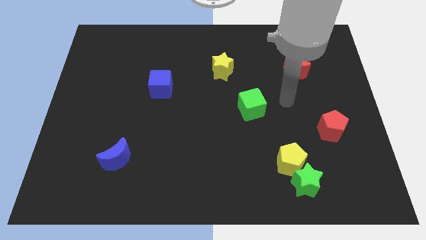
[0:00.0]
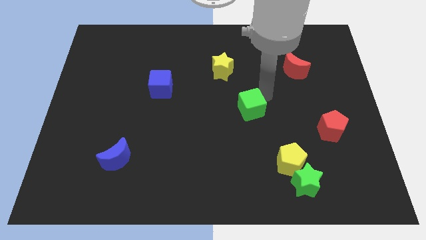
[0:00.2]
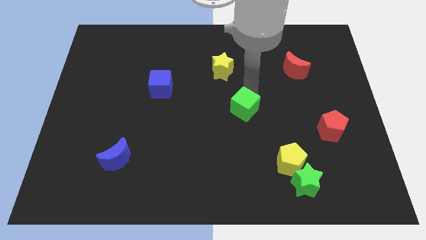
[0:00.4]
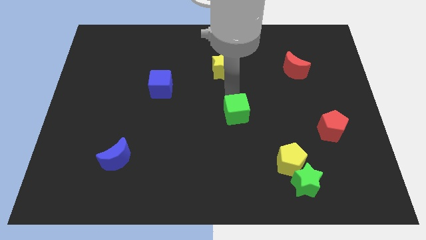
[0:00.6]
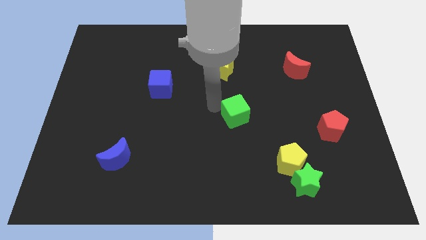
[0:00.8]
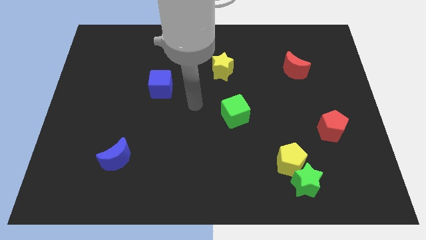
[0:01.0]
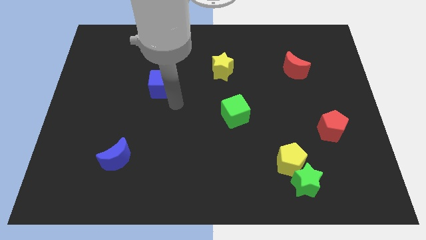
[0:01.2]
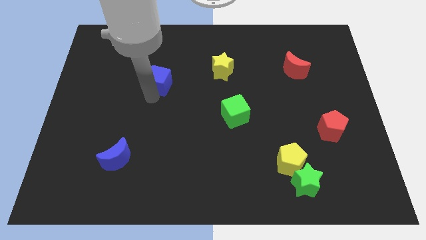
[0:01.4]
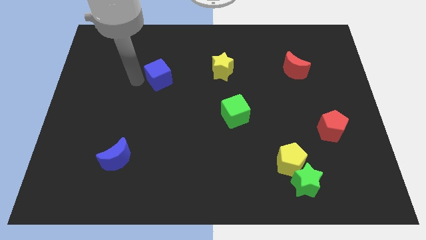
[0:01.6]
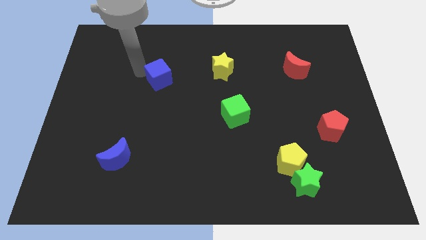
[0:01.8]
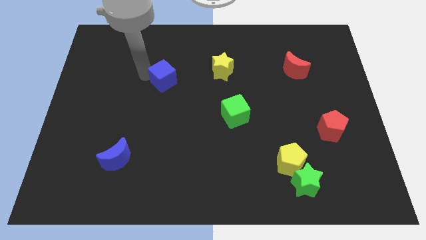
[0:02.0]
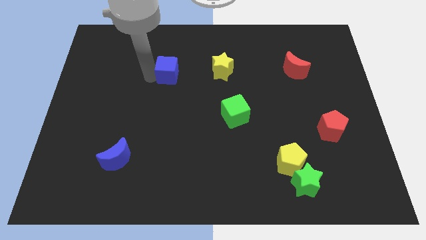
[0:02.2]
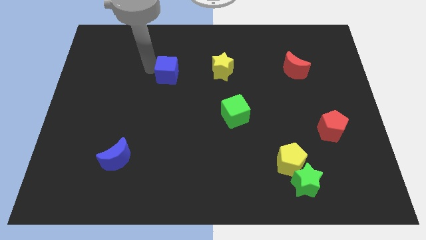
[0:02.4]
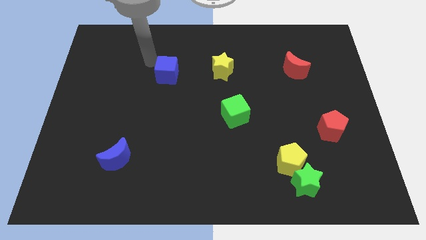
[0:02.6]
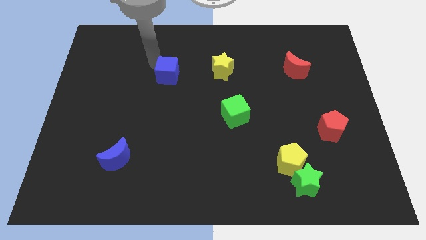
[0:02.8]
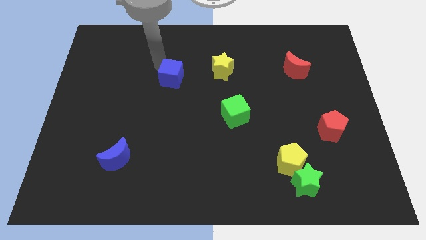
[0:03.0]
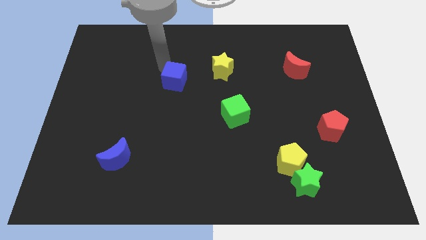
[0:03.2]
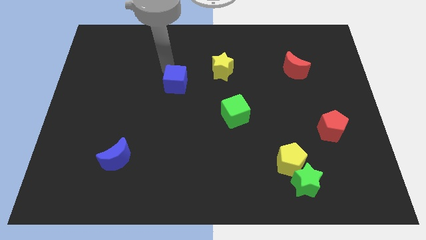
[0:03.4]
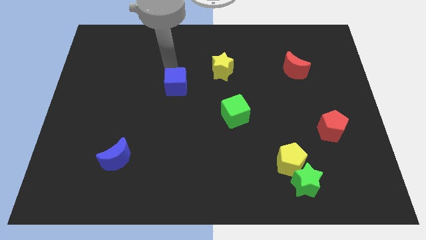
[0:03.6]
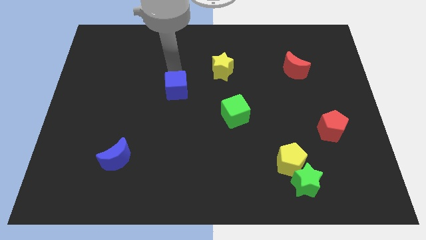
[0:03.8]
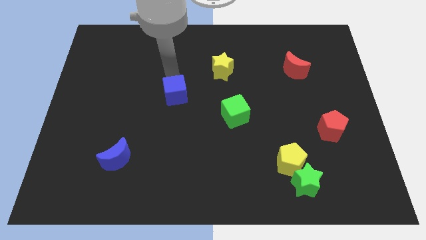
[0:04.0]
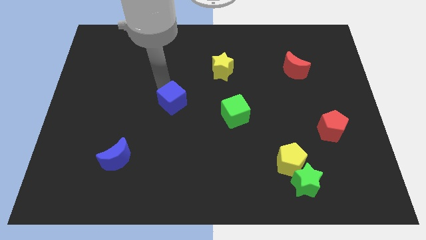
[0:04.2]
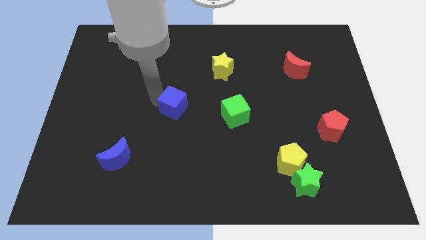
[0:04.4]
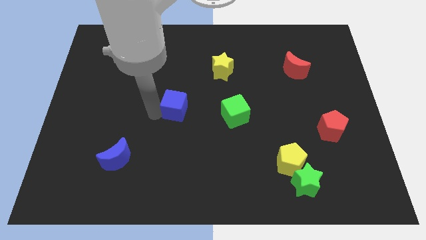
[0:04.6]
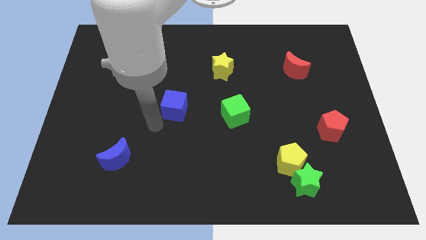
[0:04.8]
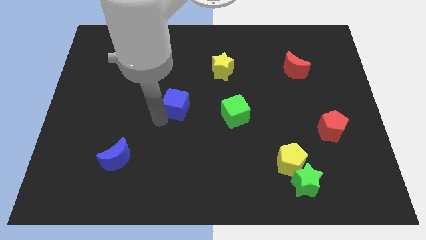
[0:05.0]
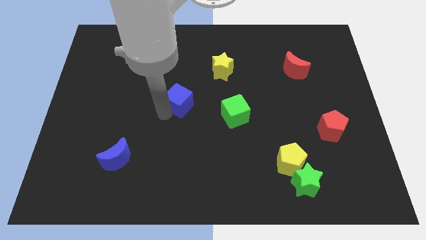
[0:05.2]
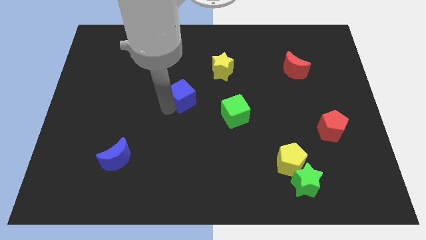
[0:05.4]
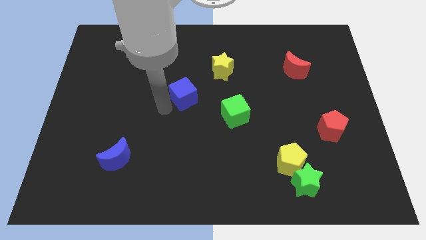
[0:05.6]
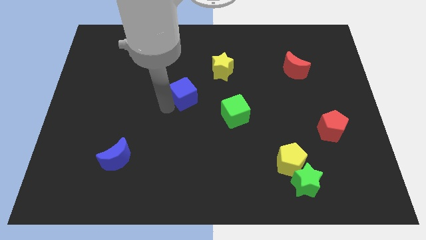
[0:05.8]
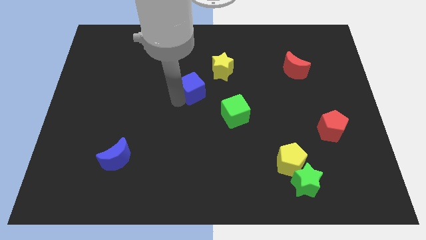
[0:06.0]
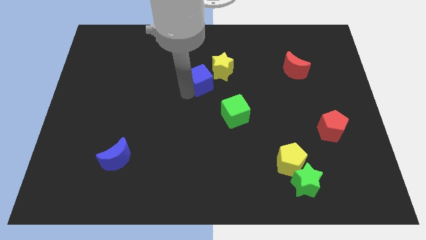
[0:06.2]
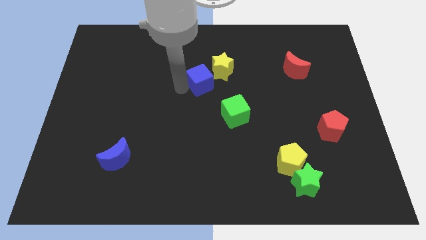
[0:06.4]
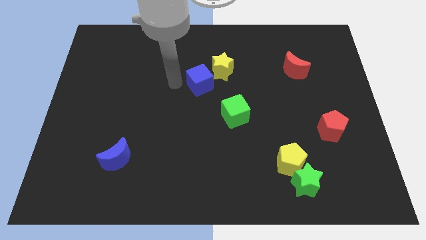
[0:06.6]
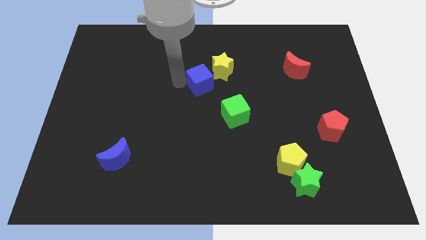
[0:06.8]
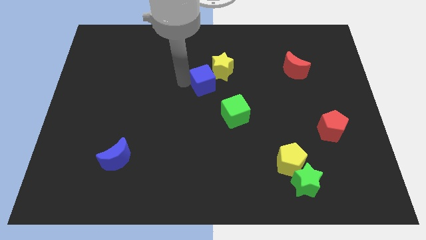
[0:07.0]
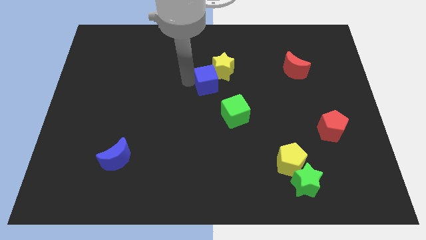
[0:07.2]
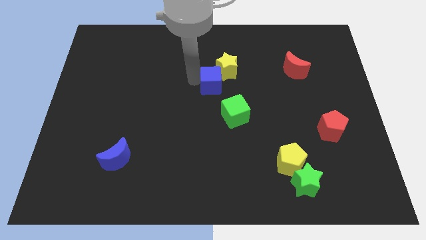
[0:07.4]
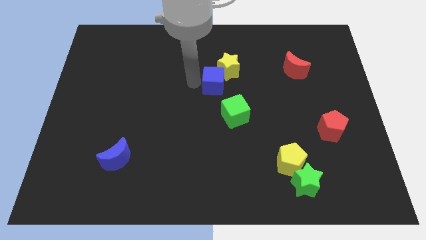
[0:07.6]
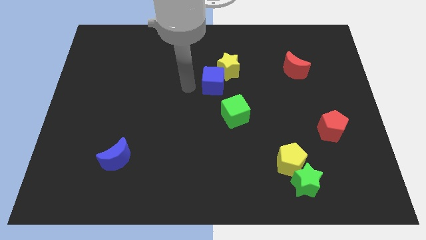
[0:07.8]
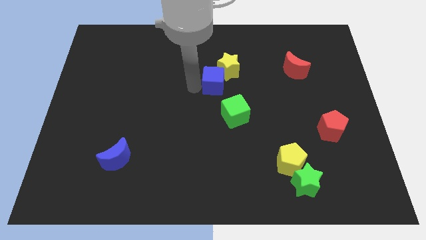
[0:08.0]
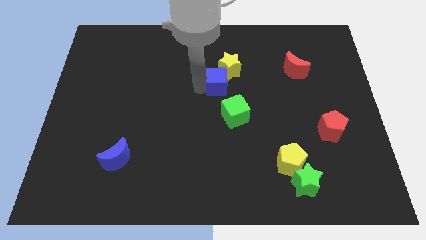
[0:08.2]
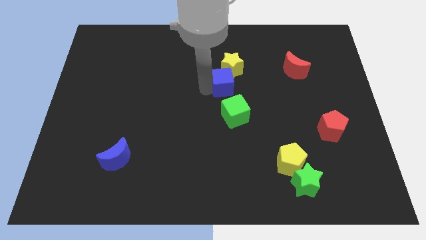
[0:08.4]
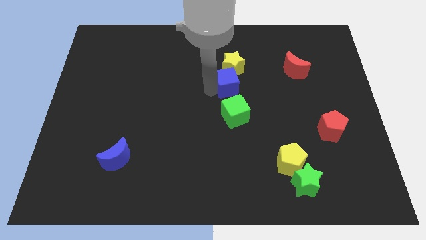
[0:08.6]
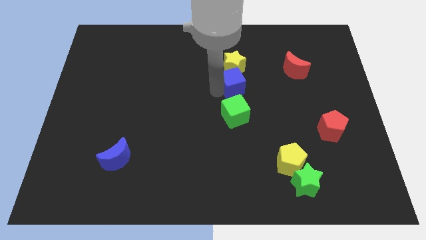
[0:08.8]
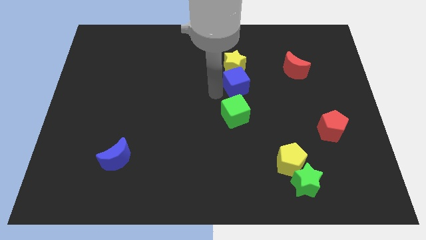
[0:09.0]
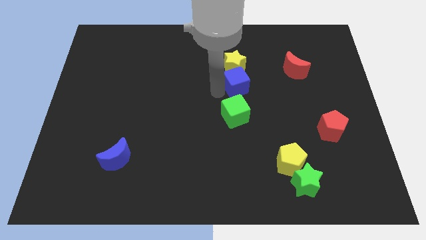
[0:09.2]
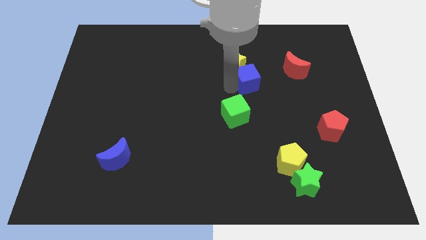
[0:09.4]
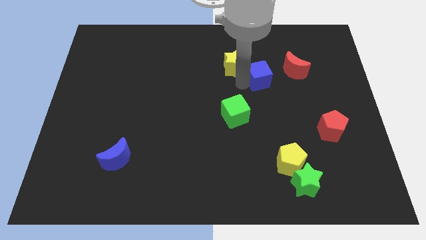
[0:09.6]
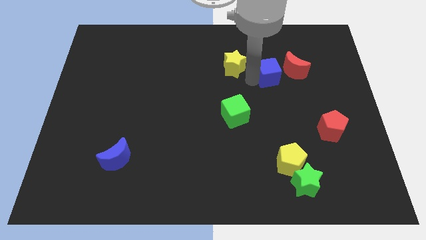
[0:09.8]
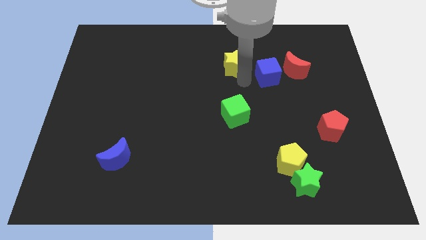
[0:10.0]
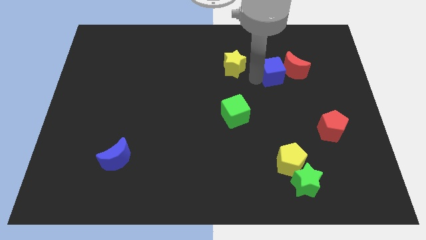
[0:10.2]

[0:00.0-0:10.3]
move the blue cube to the red moon

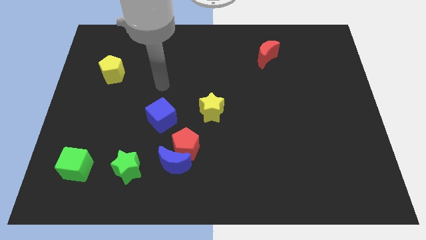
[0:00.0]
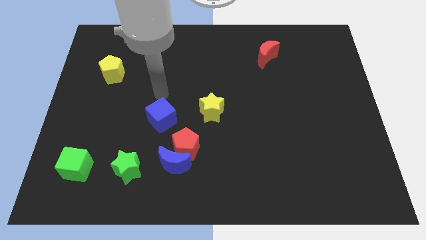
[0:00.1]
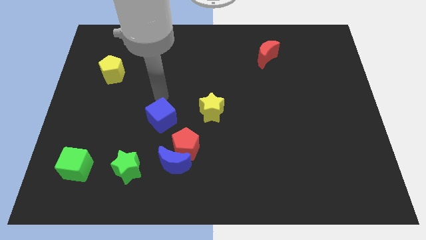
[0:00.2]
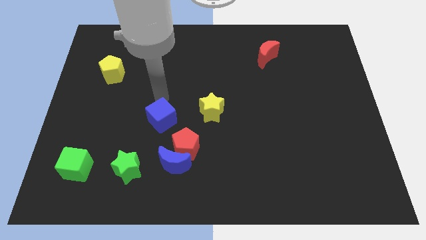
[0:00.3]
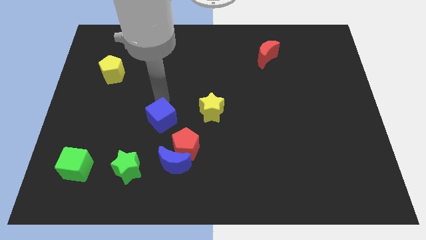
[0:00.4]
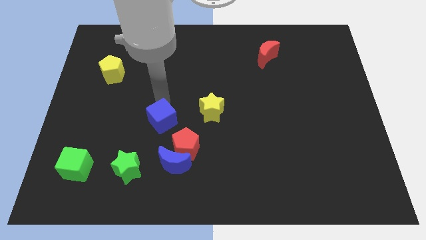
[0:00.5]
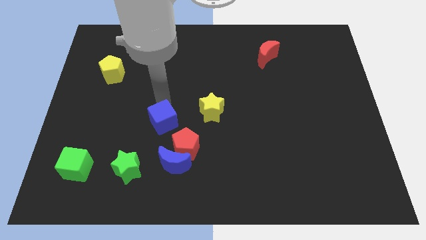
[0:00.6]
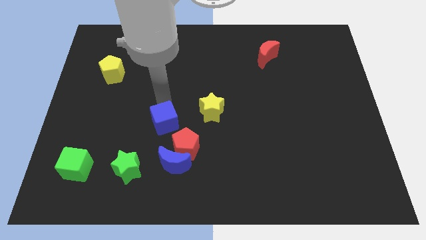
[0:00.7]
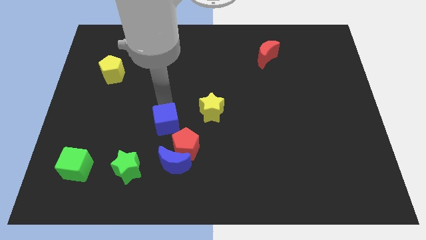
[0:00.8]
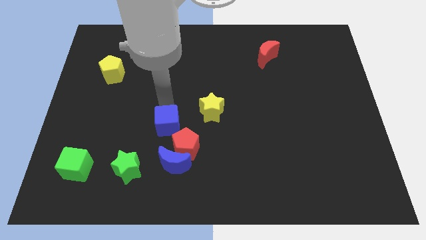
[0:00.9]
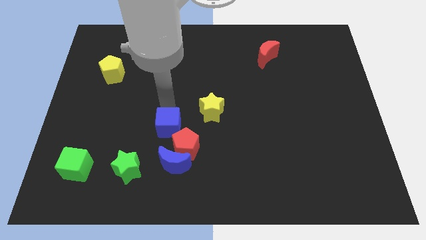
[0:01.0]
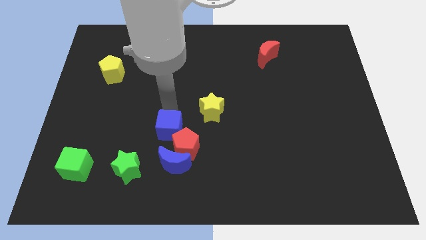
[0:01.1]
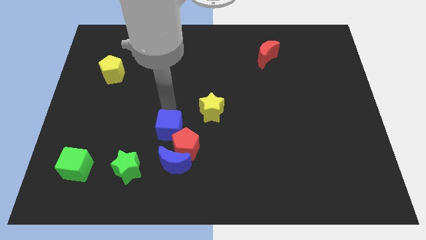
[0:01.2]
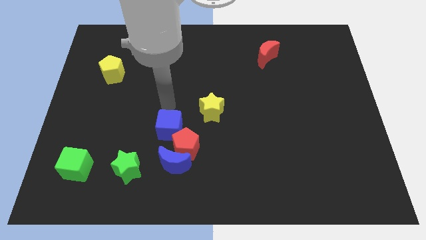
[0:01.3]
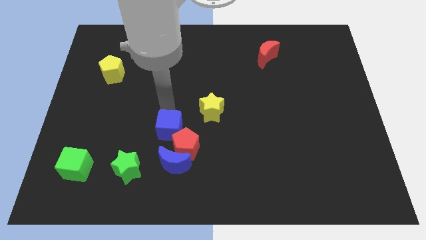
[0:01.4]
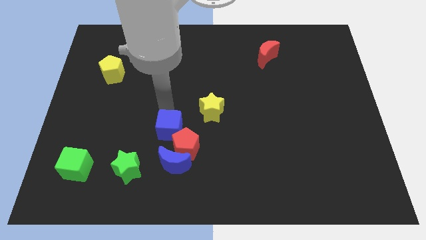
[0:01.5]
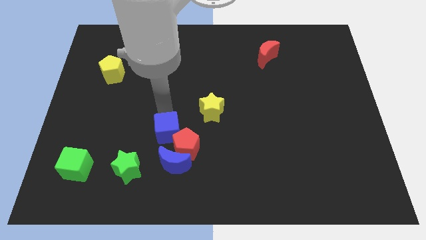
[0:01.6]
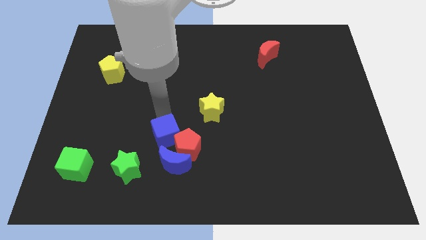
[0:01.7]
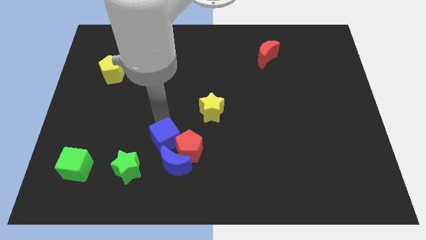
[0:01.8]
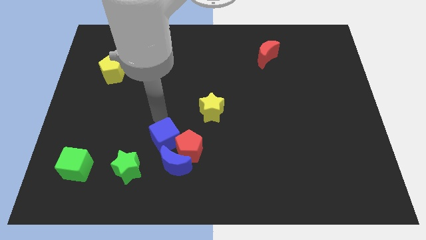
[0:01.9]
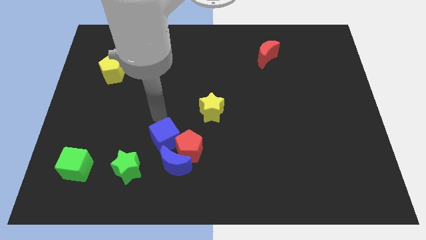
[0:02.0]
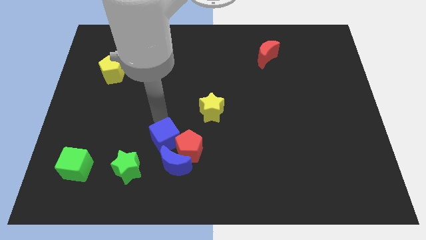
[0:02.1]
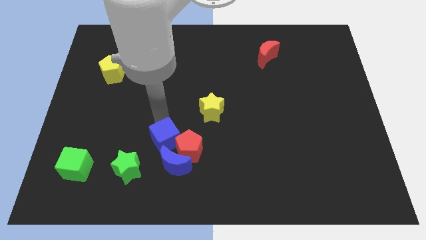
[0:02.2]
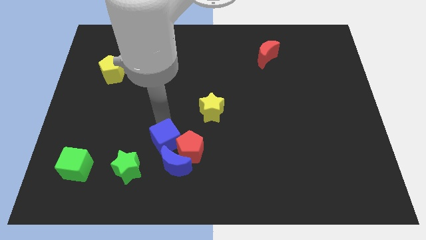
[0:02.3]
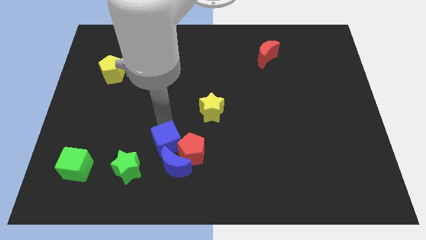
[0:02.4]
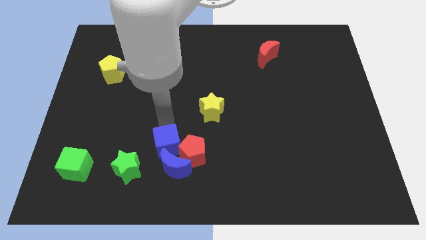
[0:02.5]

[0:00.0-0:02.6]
push the blue cube to the blue moon
